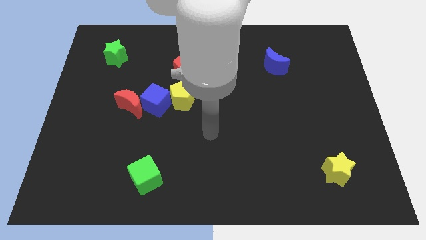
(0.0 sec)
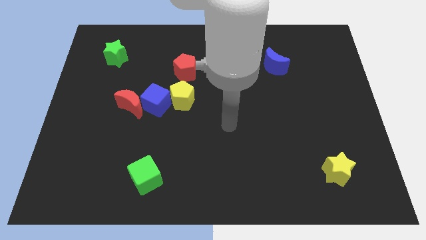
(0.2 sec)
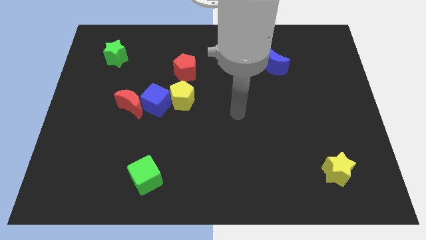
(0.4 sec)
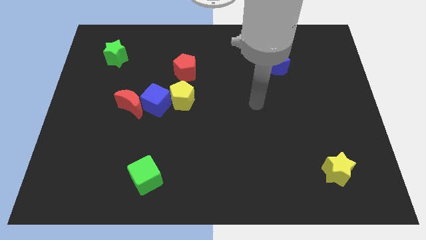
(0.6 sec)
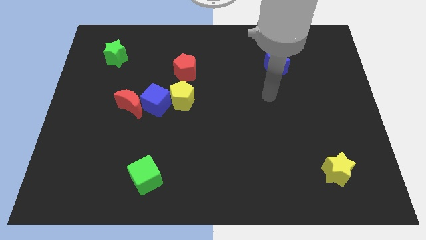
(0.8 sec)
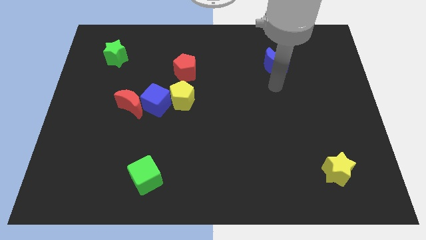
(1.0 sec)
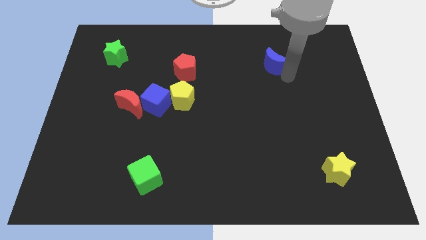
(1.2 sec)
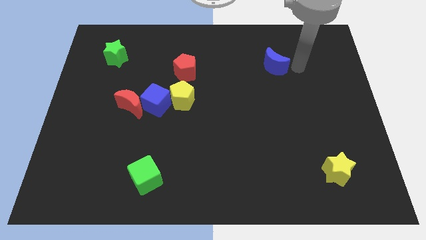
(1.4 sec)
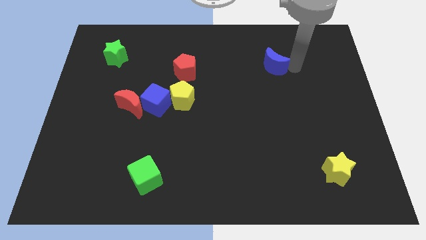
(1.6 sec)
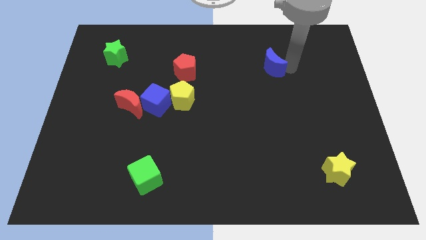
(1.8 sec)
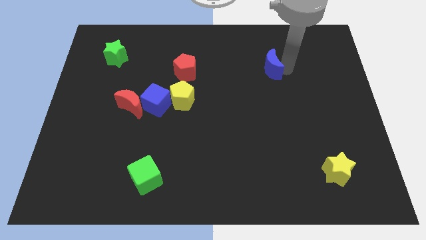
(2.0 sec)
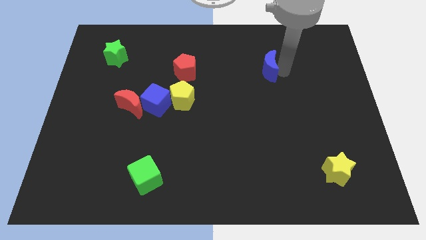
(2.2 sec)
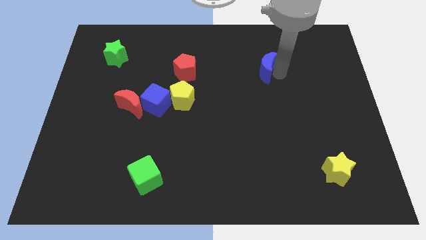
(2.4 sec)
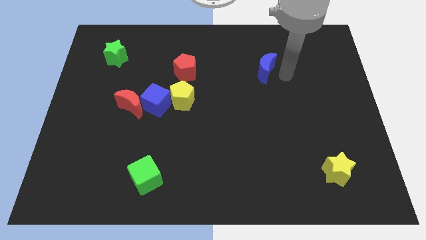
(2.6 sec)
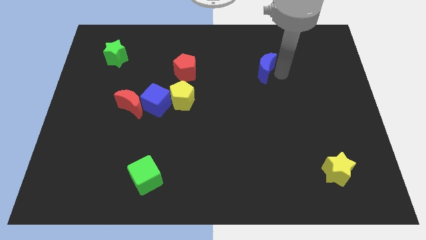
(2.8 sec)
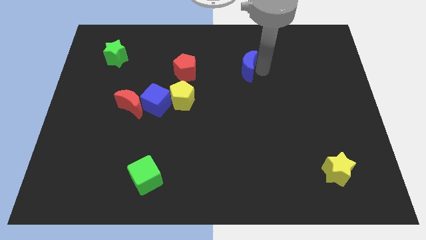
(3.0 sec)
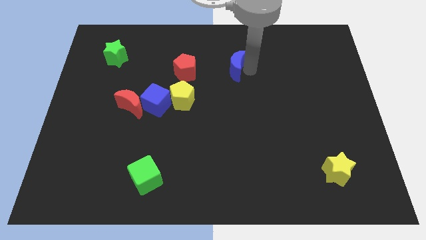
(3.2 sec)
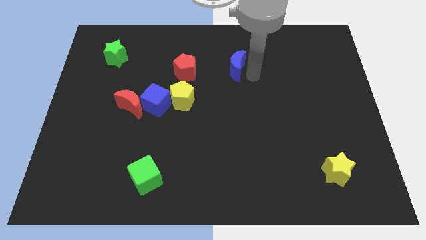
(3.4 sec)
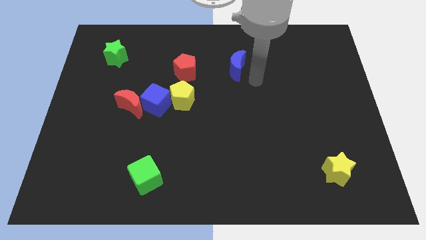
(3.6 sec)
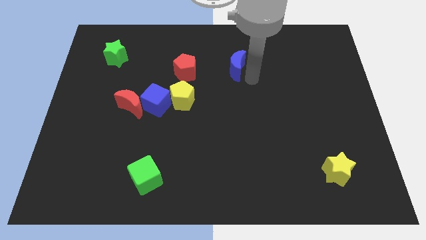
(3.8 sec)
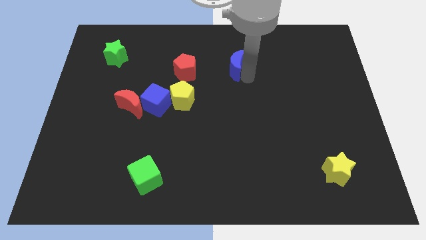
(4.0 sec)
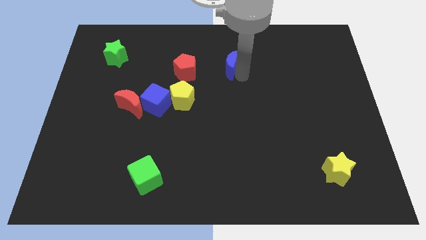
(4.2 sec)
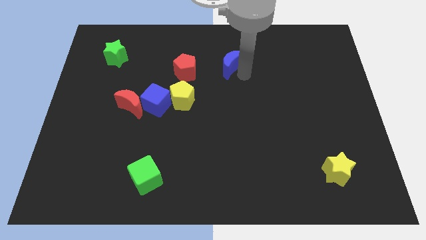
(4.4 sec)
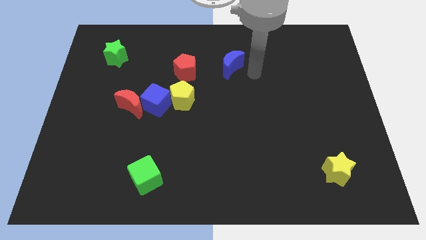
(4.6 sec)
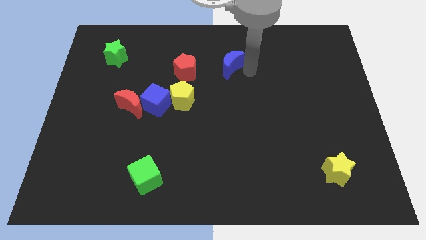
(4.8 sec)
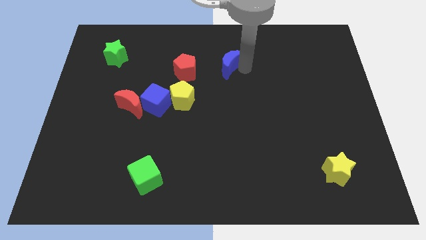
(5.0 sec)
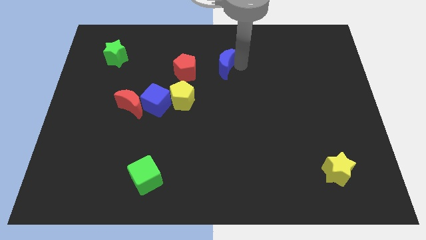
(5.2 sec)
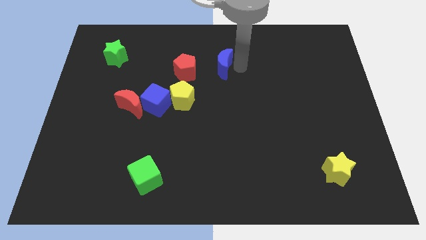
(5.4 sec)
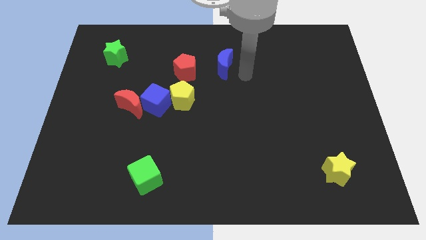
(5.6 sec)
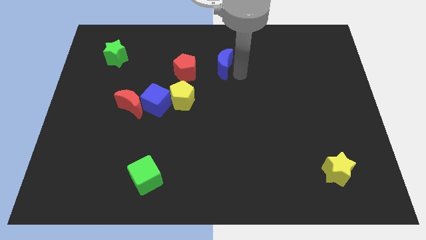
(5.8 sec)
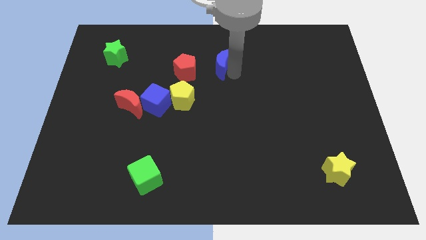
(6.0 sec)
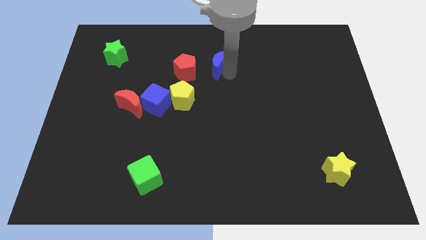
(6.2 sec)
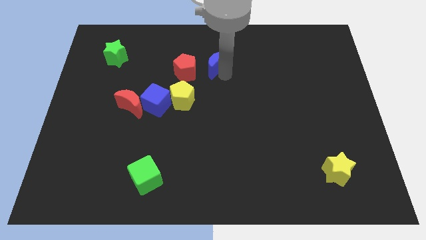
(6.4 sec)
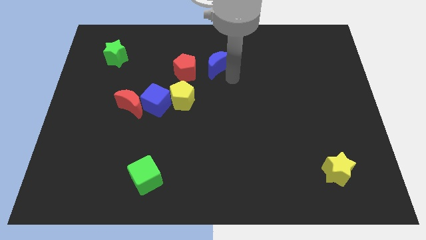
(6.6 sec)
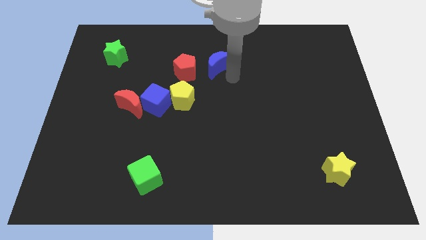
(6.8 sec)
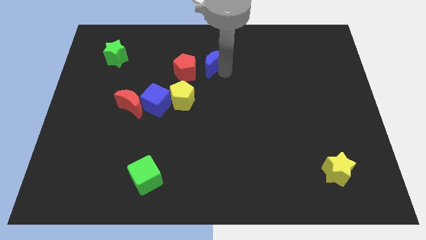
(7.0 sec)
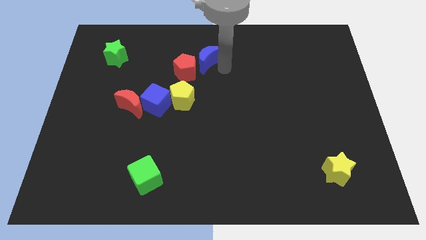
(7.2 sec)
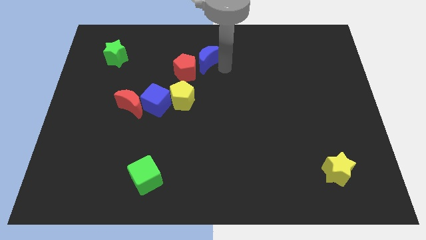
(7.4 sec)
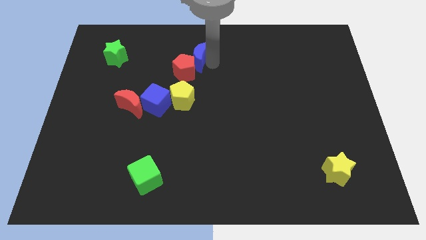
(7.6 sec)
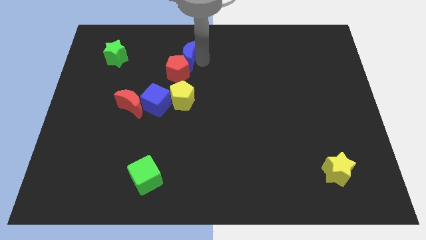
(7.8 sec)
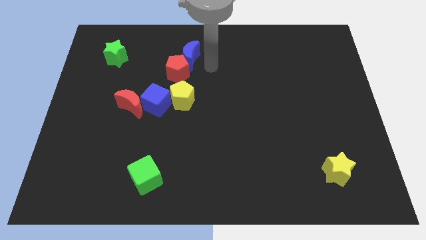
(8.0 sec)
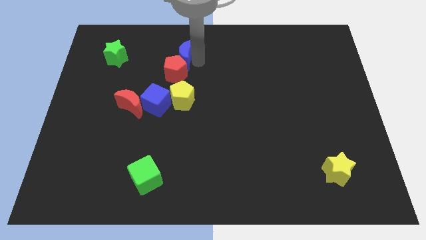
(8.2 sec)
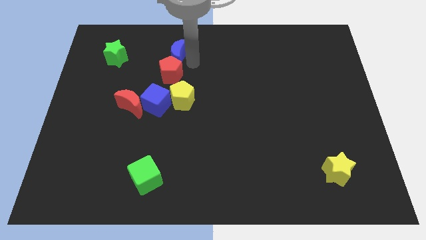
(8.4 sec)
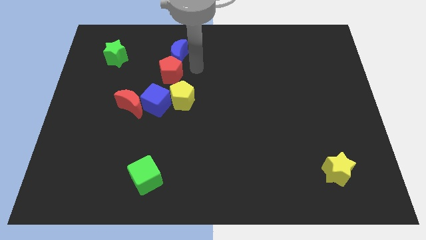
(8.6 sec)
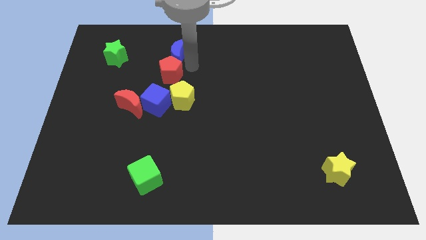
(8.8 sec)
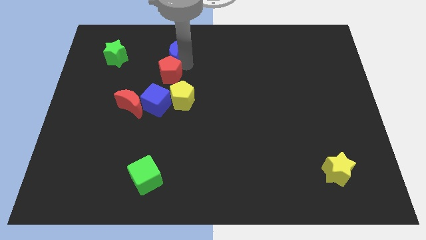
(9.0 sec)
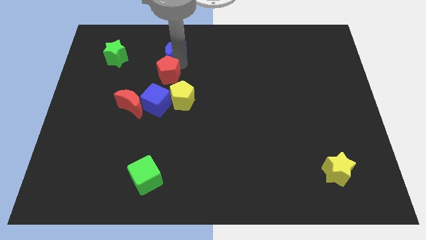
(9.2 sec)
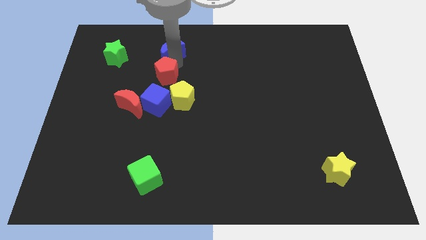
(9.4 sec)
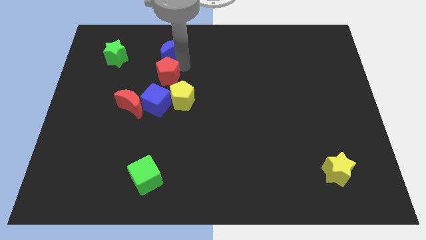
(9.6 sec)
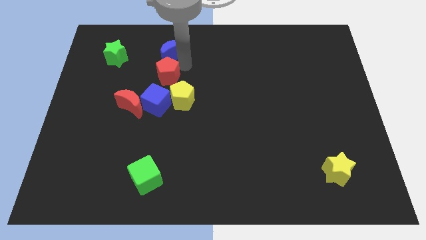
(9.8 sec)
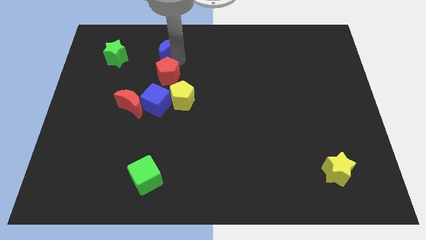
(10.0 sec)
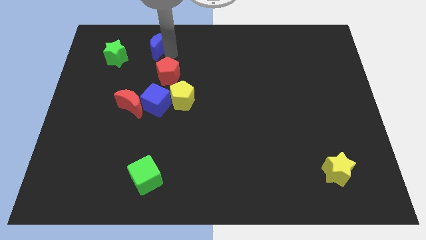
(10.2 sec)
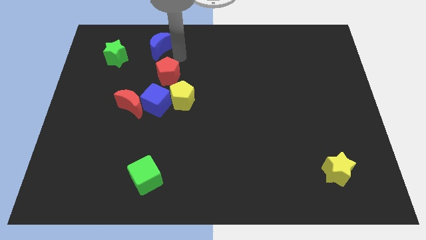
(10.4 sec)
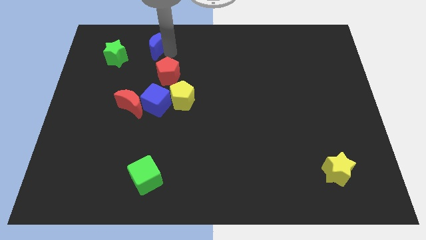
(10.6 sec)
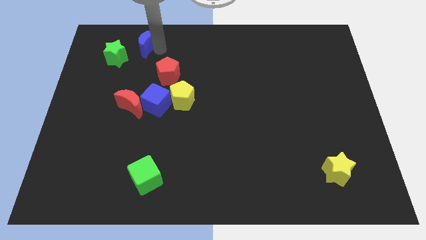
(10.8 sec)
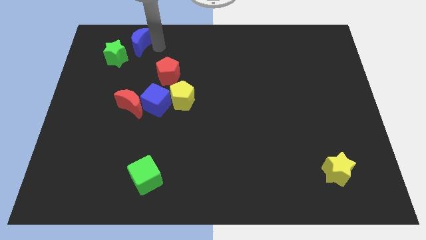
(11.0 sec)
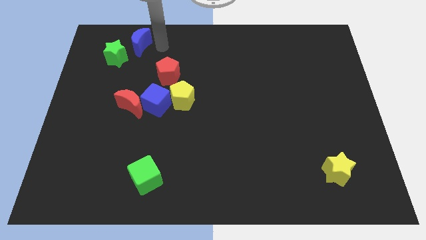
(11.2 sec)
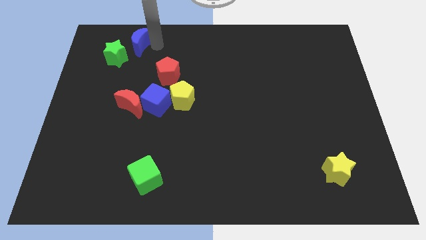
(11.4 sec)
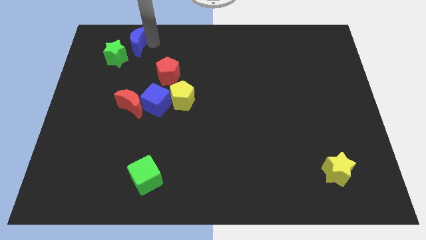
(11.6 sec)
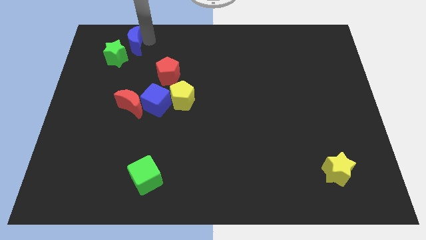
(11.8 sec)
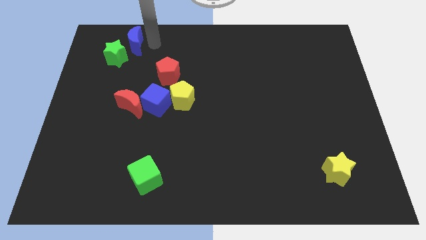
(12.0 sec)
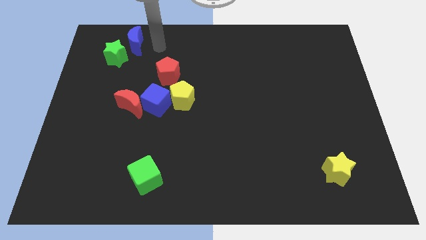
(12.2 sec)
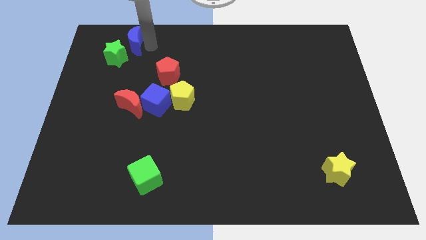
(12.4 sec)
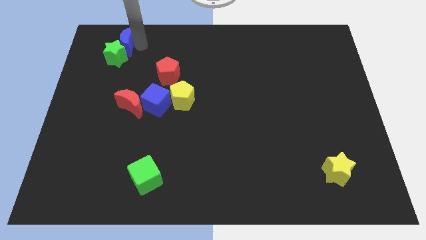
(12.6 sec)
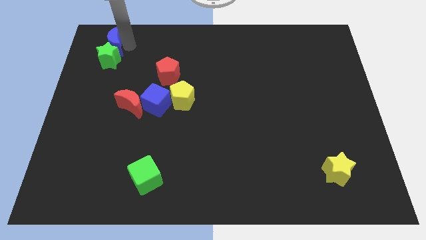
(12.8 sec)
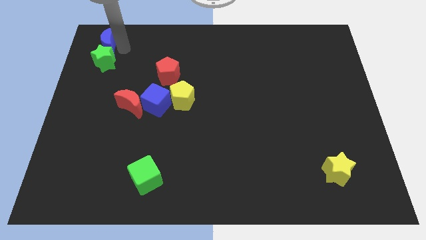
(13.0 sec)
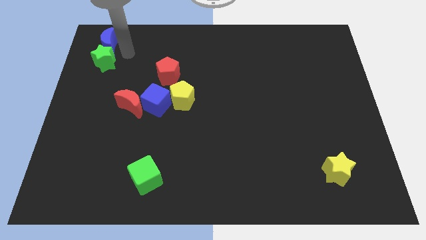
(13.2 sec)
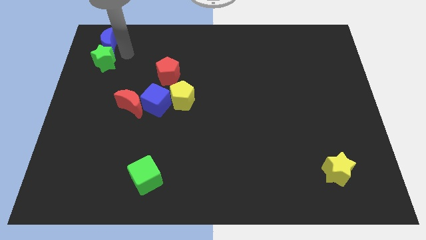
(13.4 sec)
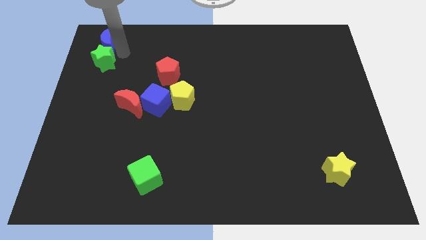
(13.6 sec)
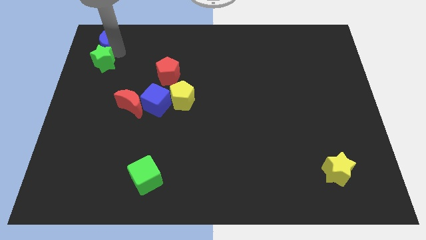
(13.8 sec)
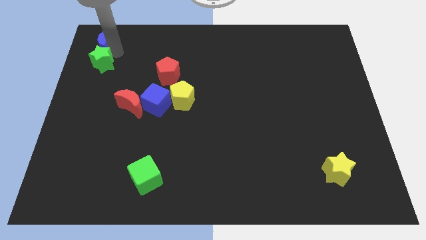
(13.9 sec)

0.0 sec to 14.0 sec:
slide the blue moon to the top left of the board
